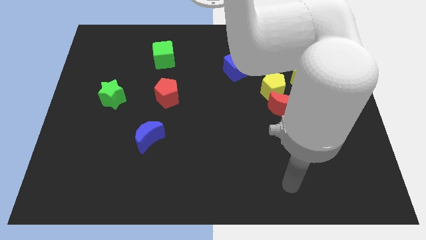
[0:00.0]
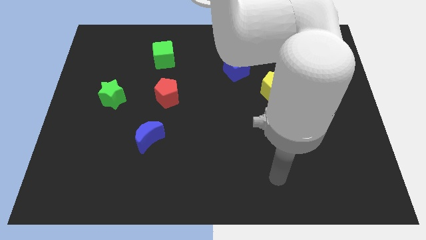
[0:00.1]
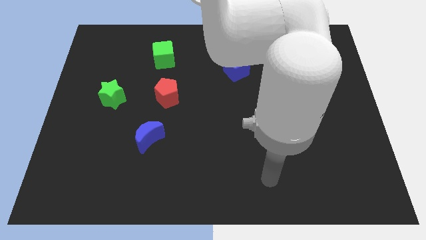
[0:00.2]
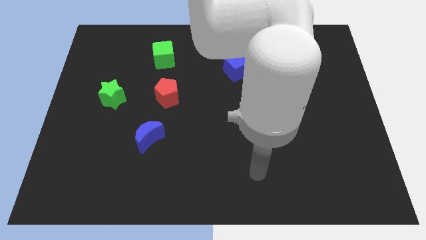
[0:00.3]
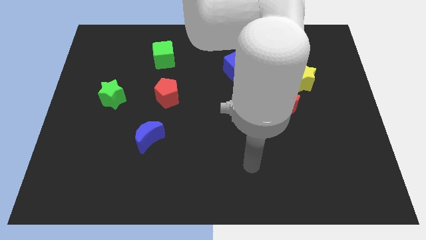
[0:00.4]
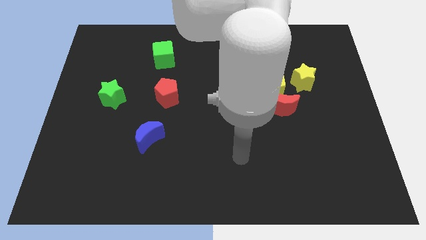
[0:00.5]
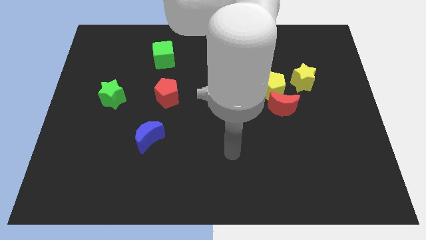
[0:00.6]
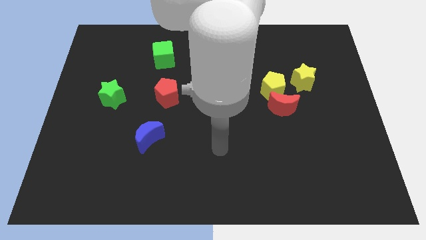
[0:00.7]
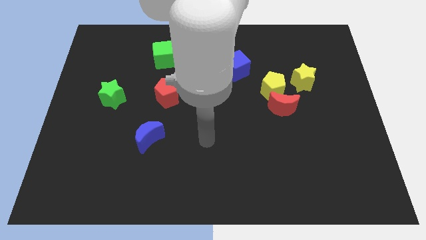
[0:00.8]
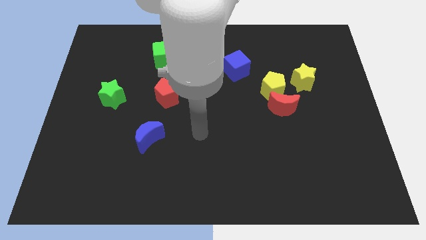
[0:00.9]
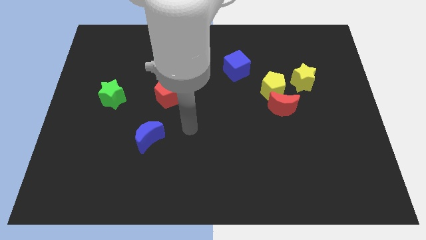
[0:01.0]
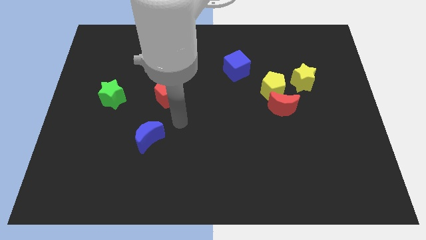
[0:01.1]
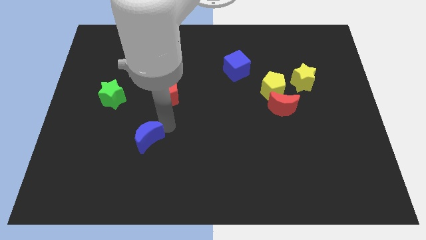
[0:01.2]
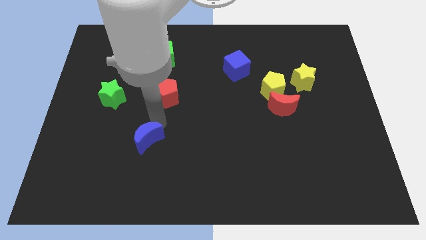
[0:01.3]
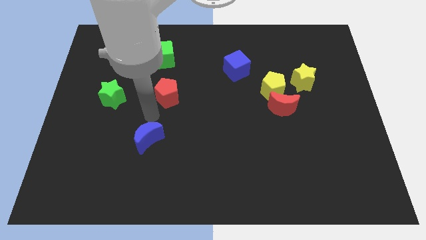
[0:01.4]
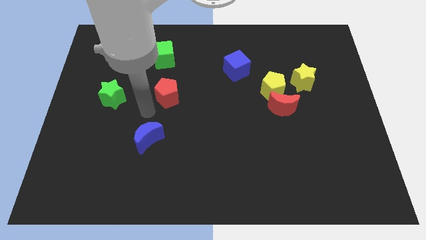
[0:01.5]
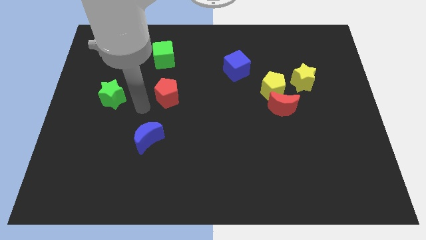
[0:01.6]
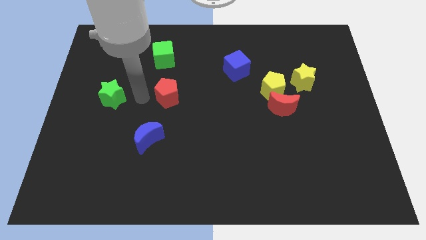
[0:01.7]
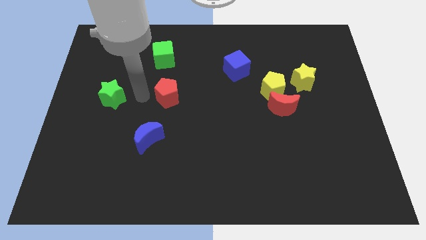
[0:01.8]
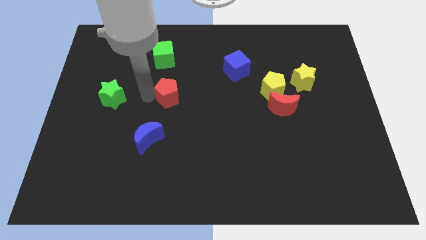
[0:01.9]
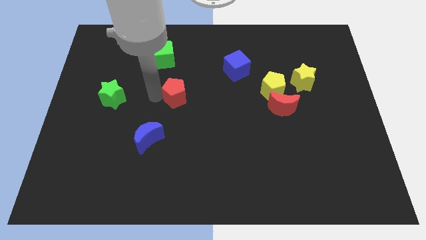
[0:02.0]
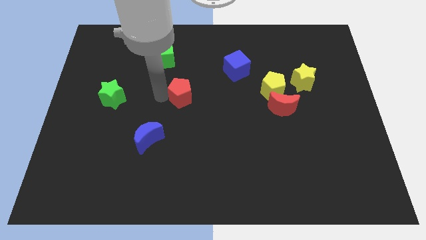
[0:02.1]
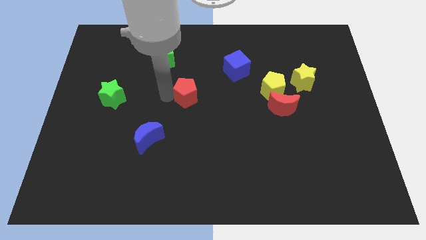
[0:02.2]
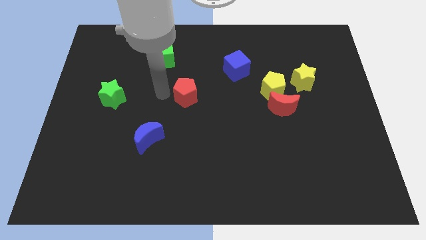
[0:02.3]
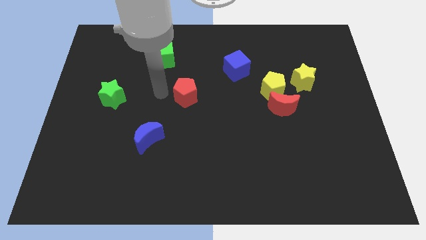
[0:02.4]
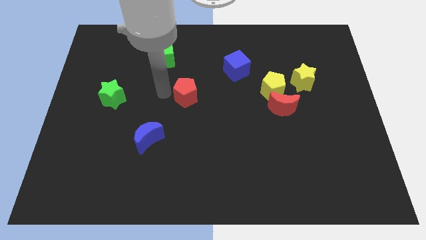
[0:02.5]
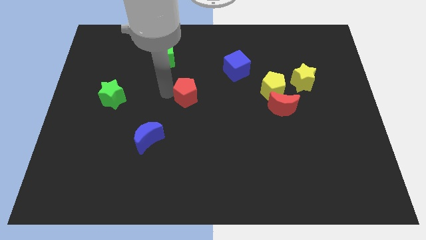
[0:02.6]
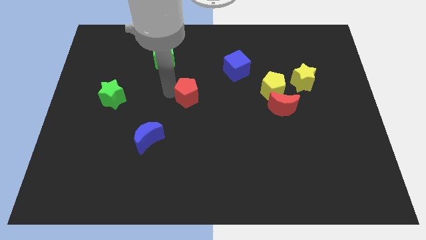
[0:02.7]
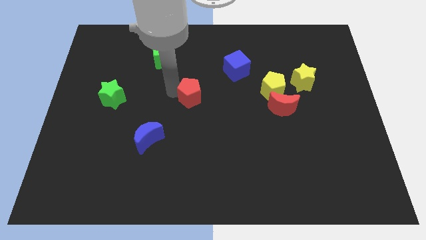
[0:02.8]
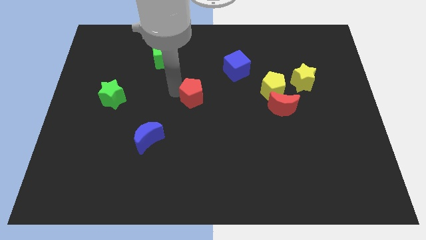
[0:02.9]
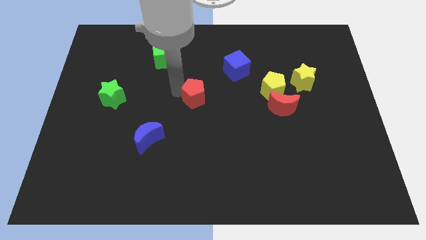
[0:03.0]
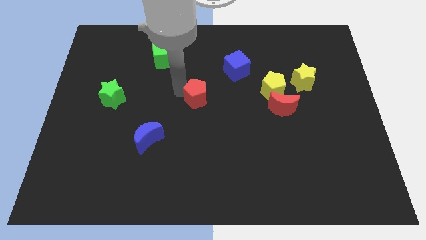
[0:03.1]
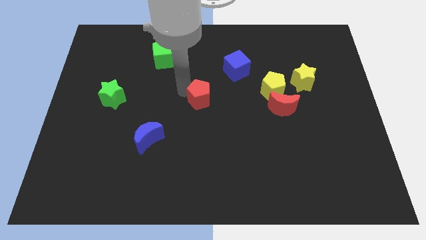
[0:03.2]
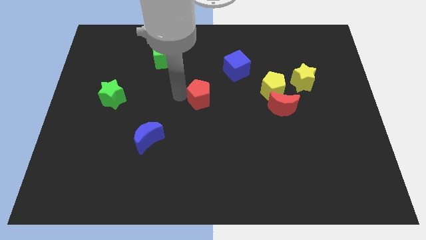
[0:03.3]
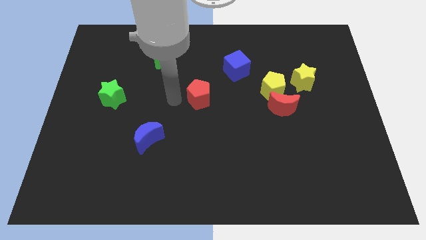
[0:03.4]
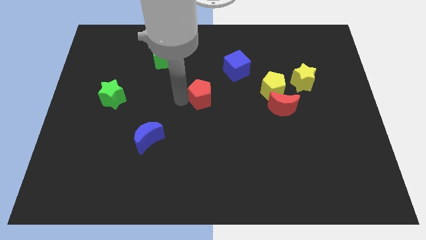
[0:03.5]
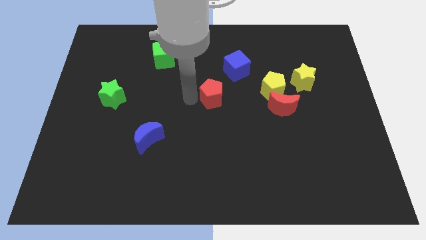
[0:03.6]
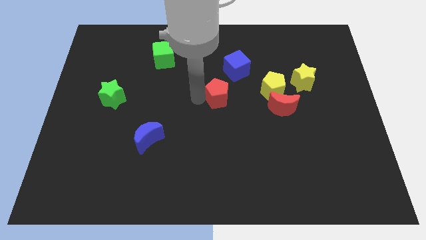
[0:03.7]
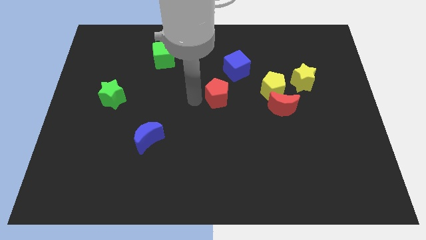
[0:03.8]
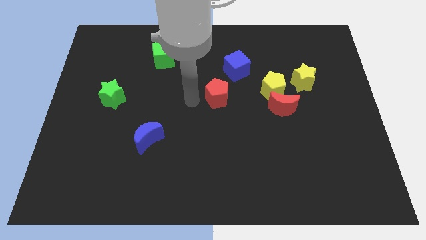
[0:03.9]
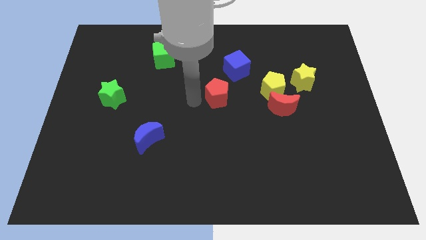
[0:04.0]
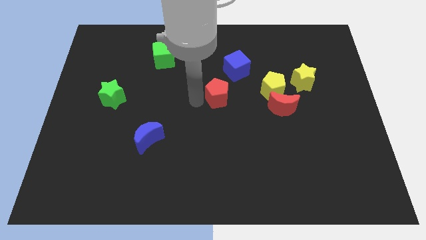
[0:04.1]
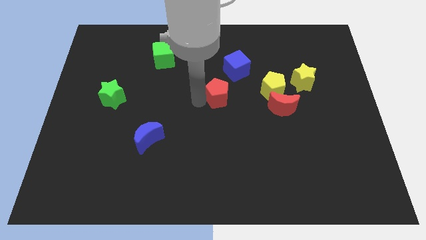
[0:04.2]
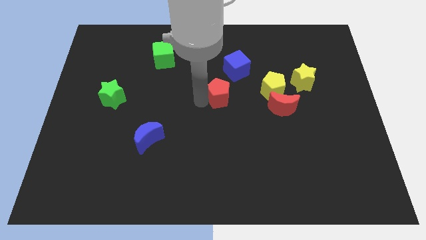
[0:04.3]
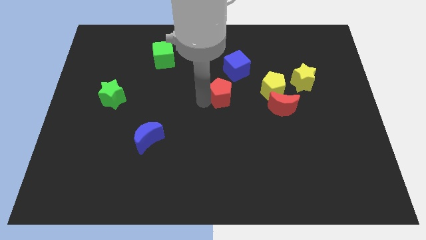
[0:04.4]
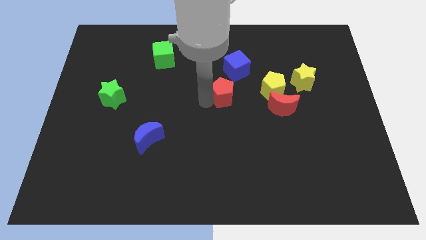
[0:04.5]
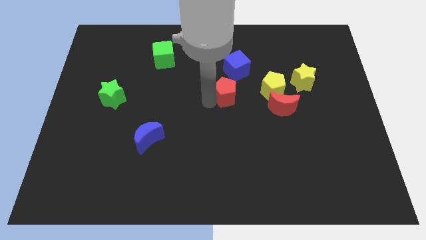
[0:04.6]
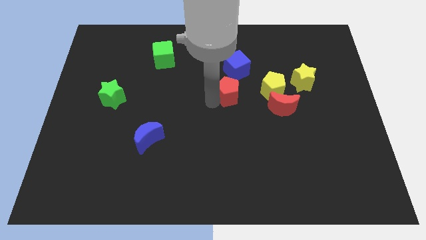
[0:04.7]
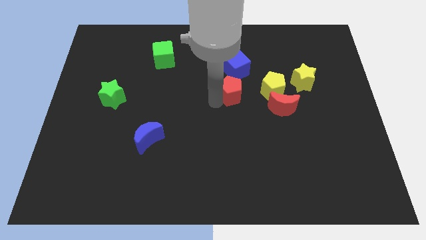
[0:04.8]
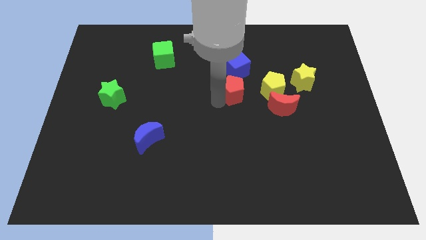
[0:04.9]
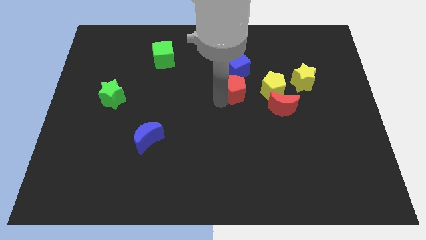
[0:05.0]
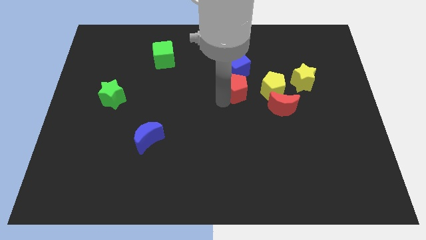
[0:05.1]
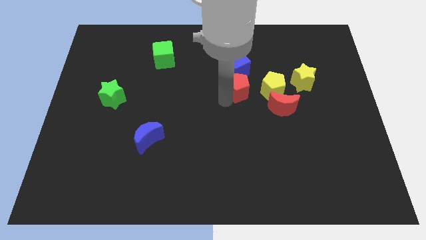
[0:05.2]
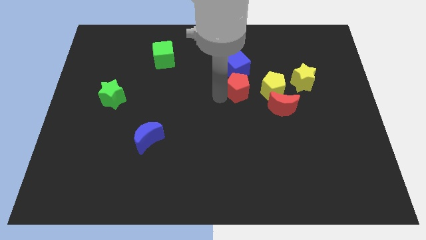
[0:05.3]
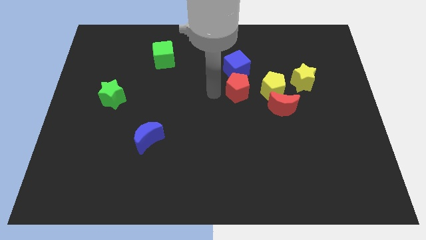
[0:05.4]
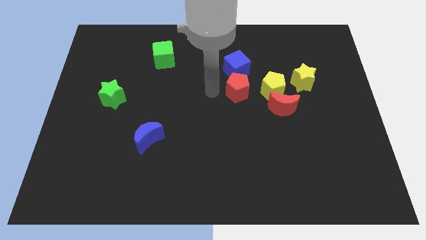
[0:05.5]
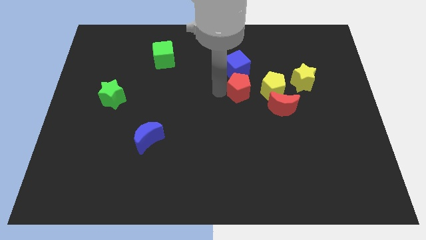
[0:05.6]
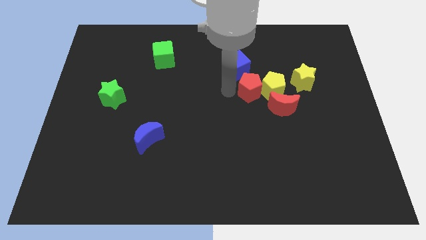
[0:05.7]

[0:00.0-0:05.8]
move the red pentagon next to the yellow pentagon

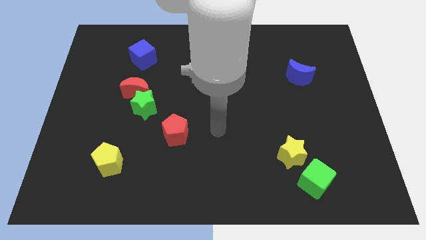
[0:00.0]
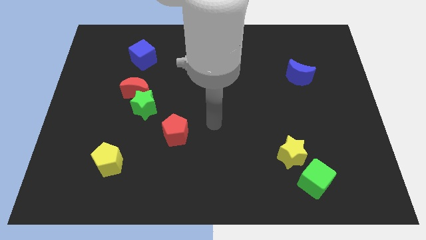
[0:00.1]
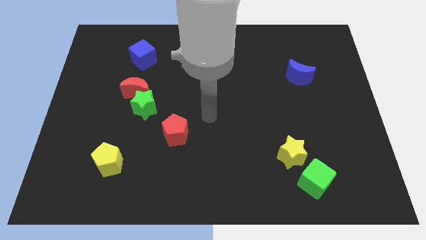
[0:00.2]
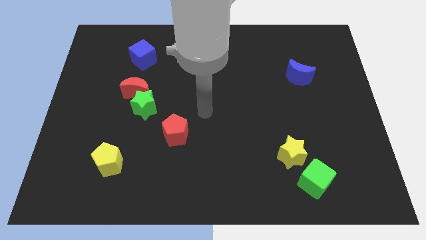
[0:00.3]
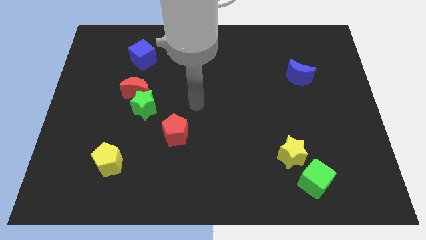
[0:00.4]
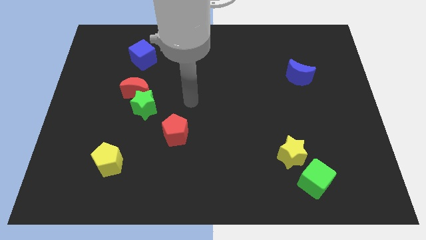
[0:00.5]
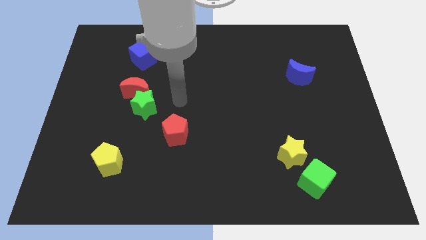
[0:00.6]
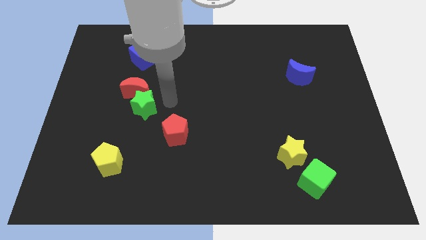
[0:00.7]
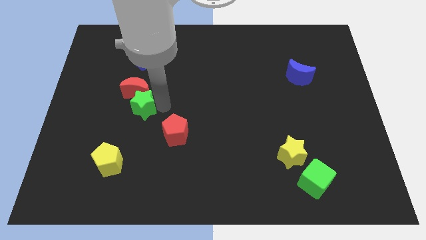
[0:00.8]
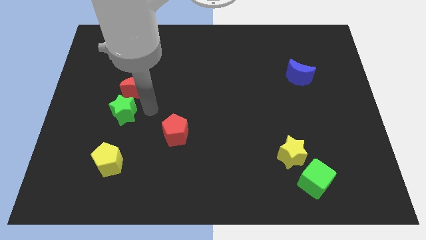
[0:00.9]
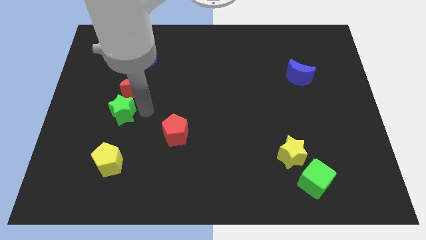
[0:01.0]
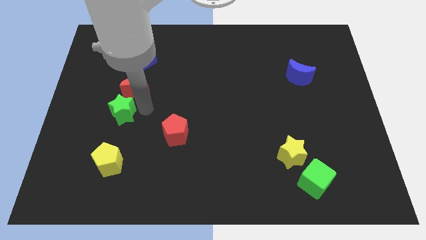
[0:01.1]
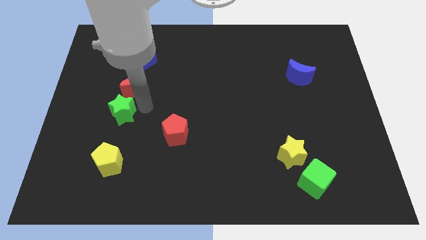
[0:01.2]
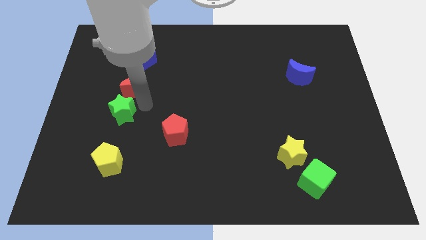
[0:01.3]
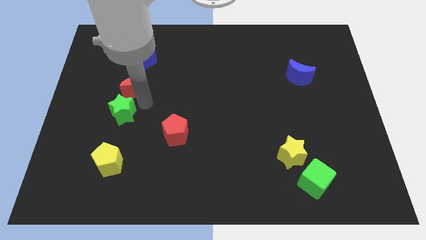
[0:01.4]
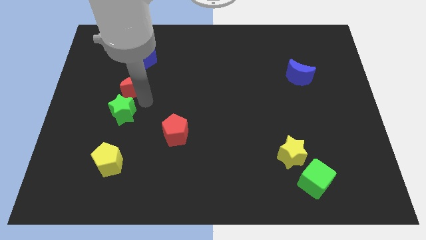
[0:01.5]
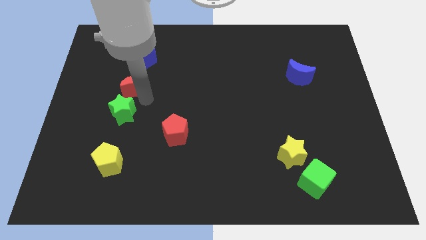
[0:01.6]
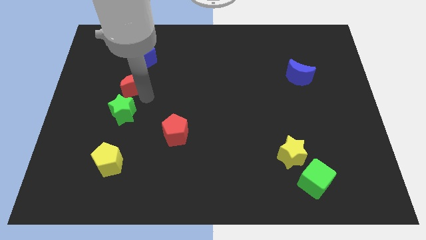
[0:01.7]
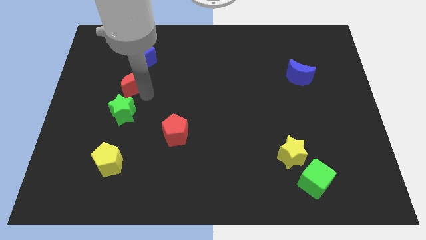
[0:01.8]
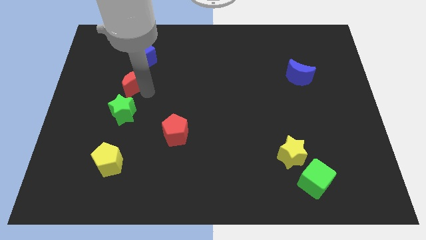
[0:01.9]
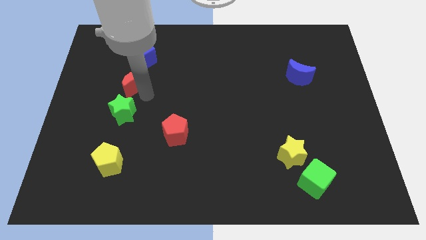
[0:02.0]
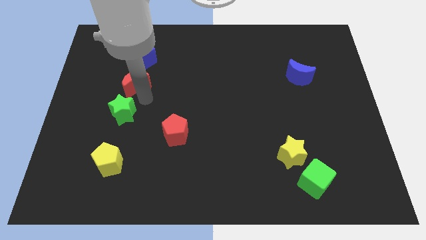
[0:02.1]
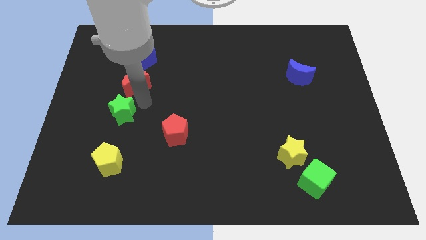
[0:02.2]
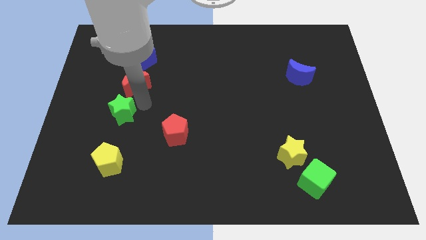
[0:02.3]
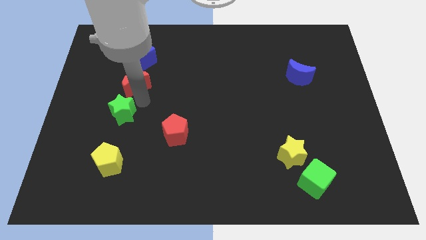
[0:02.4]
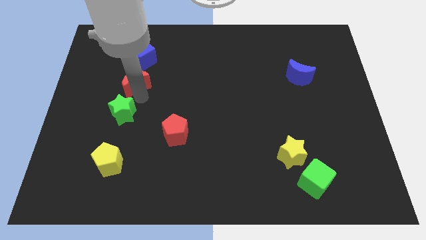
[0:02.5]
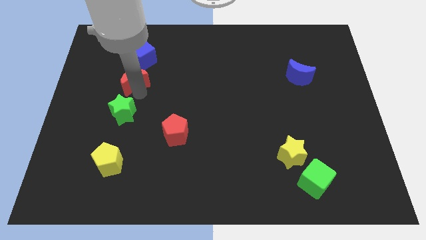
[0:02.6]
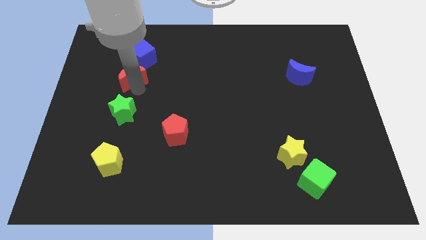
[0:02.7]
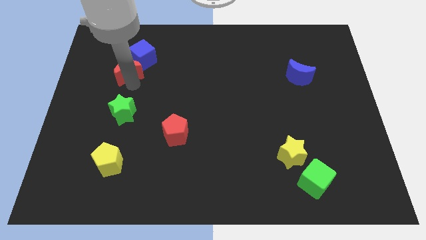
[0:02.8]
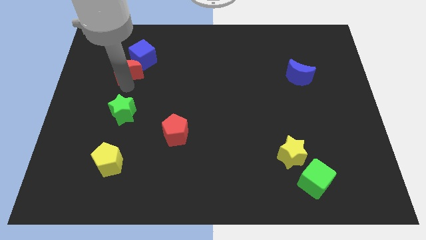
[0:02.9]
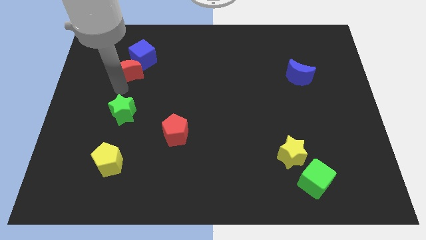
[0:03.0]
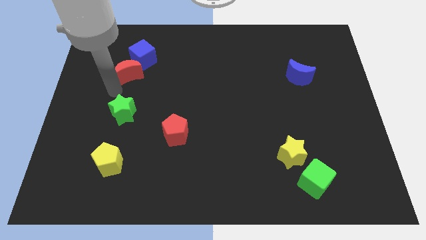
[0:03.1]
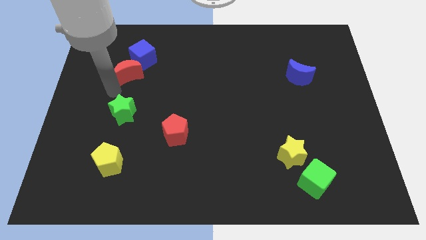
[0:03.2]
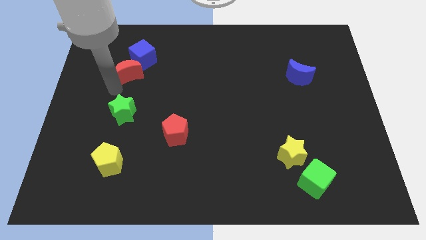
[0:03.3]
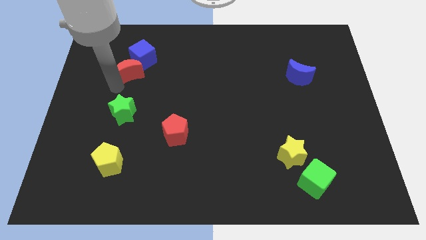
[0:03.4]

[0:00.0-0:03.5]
push the red moon to the blue cube
